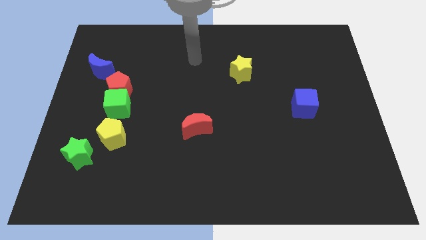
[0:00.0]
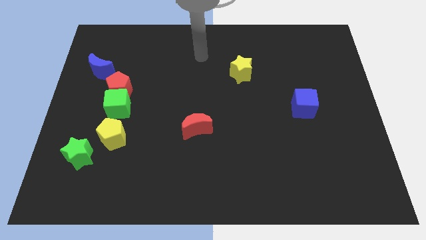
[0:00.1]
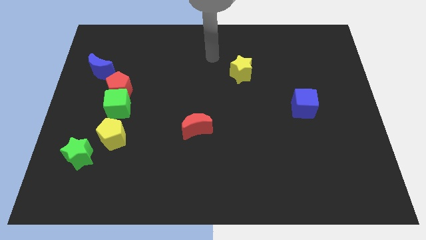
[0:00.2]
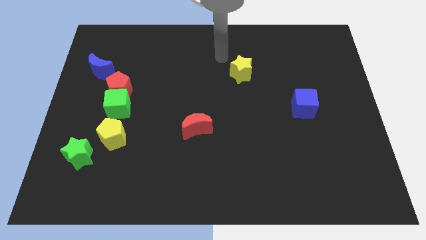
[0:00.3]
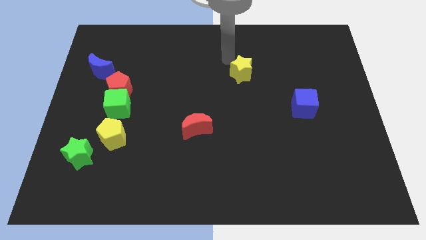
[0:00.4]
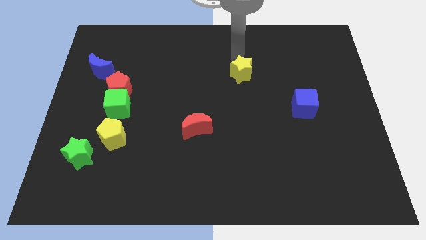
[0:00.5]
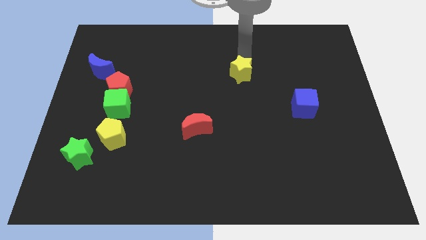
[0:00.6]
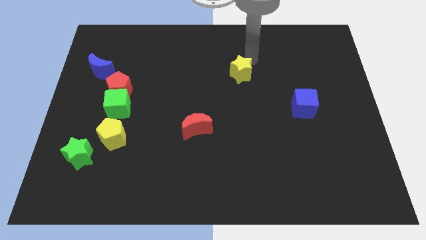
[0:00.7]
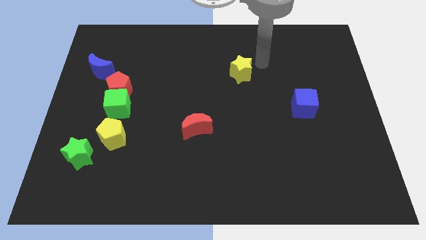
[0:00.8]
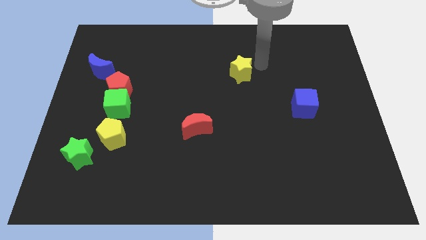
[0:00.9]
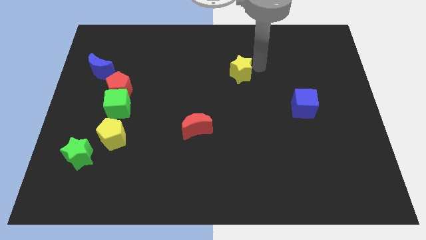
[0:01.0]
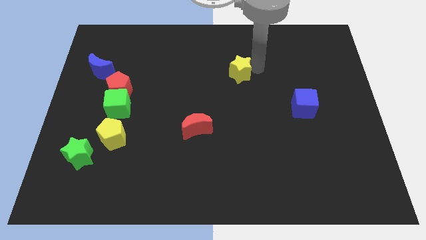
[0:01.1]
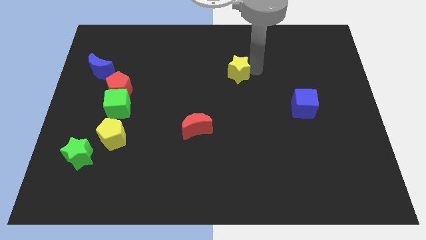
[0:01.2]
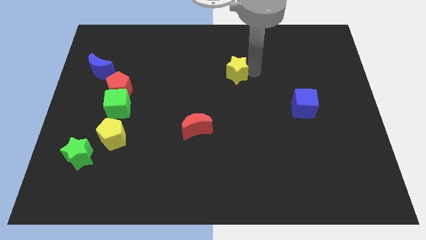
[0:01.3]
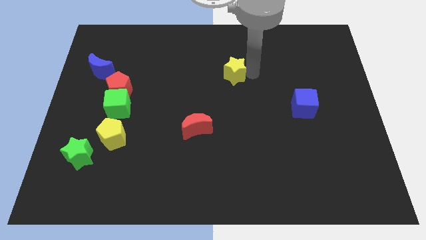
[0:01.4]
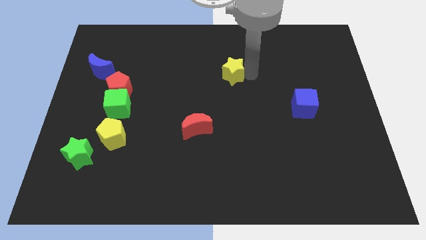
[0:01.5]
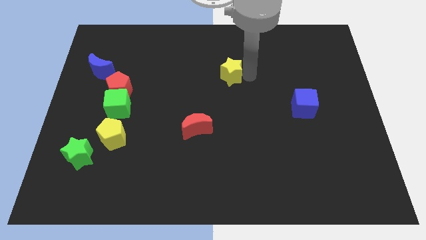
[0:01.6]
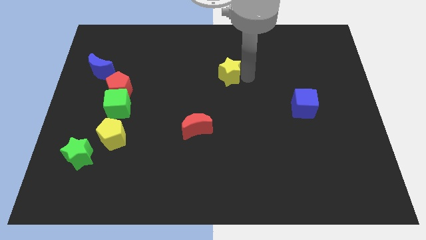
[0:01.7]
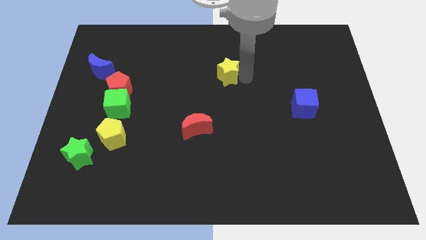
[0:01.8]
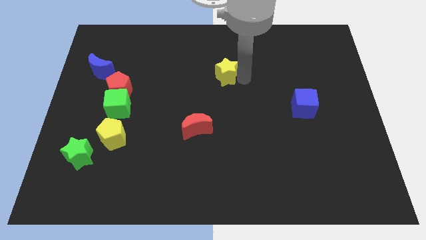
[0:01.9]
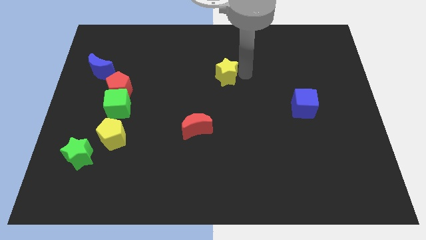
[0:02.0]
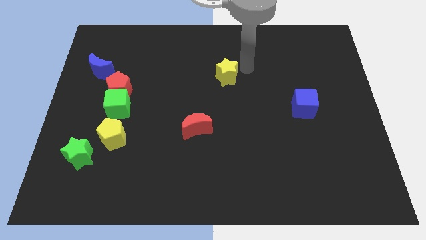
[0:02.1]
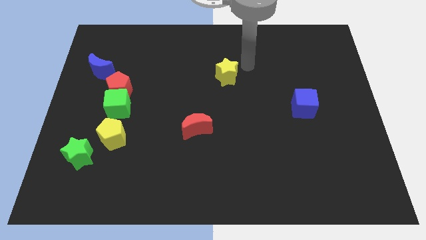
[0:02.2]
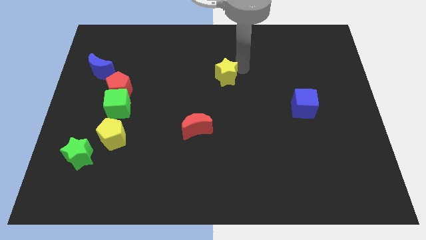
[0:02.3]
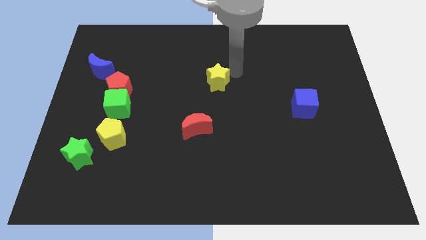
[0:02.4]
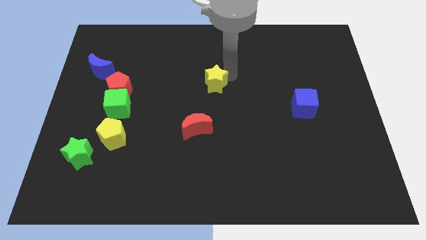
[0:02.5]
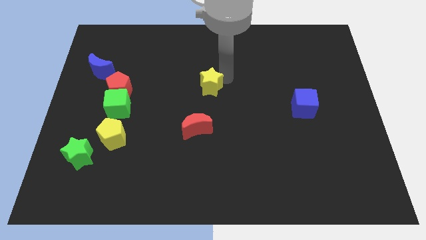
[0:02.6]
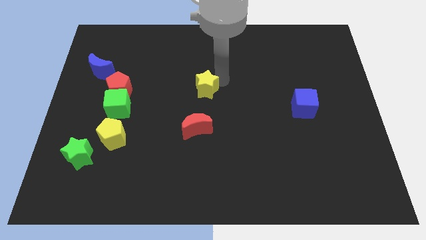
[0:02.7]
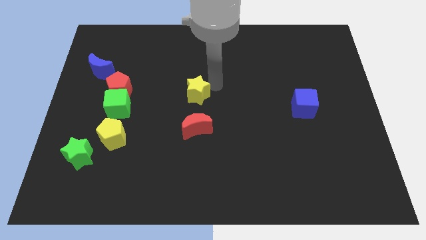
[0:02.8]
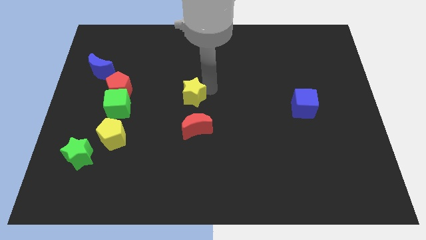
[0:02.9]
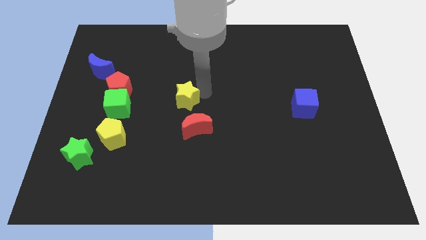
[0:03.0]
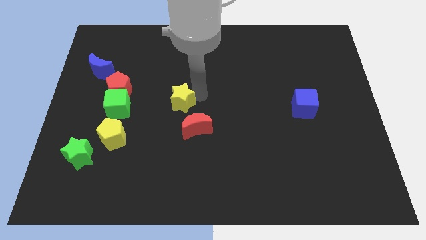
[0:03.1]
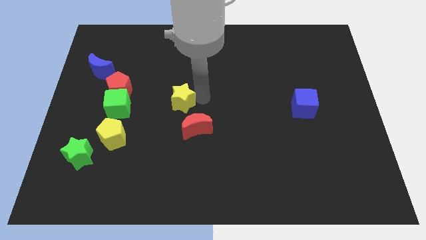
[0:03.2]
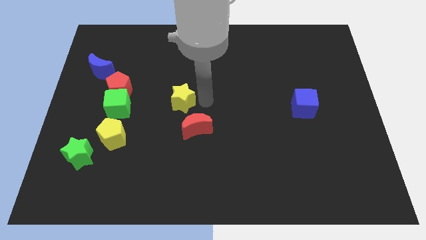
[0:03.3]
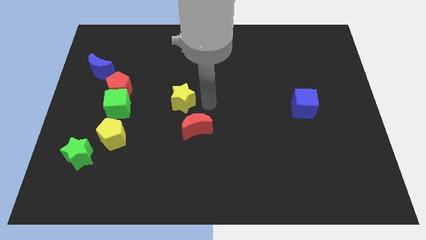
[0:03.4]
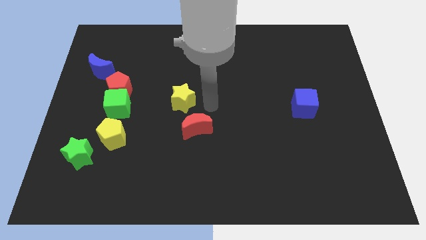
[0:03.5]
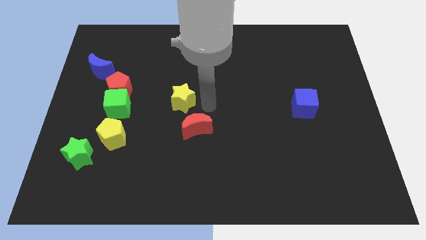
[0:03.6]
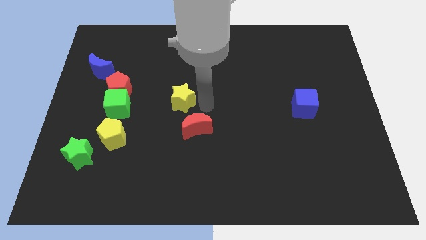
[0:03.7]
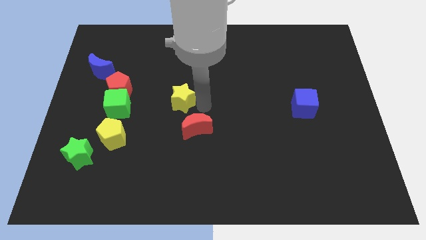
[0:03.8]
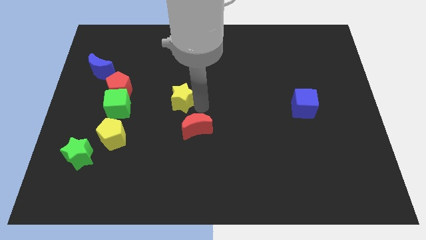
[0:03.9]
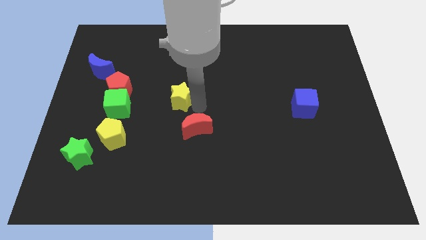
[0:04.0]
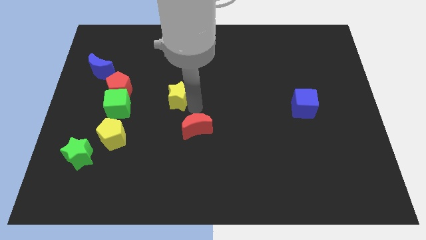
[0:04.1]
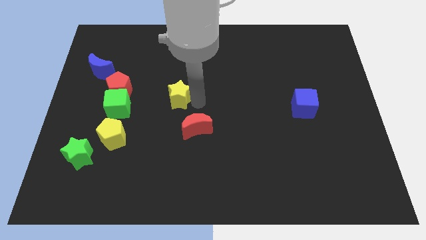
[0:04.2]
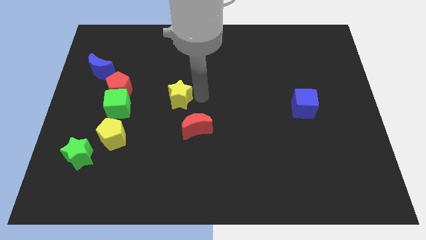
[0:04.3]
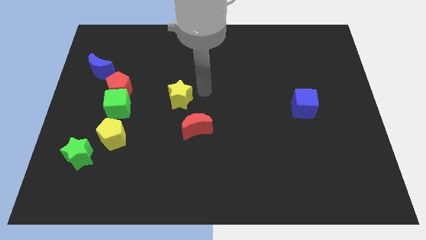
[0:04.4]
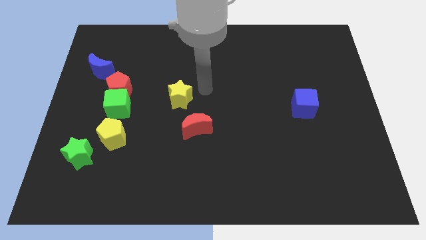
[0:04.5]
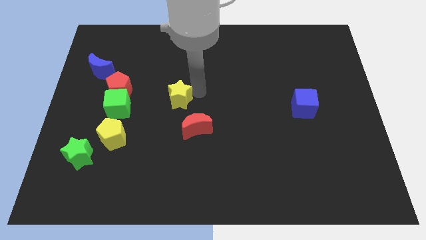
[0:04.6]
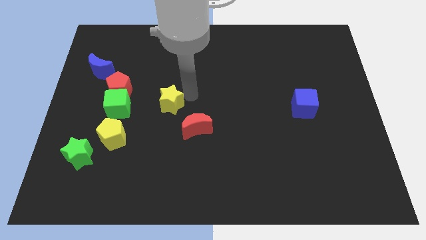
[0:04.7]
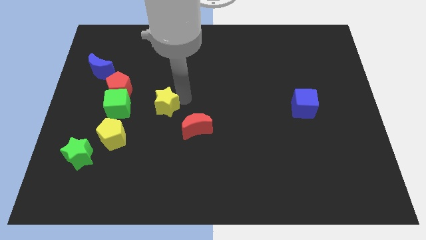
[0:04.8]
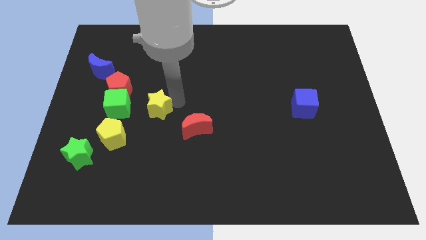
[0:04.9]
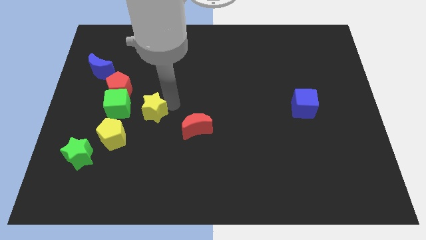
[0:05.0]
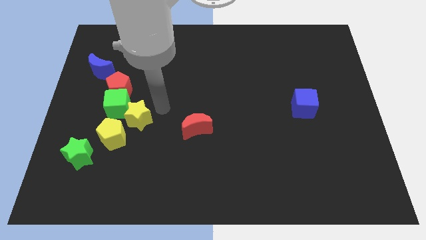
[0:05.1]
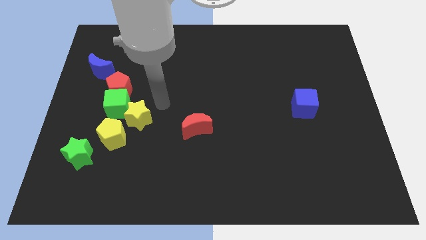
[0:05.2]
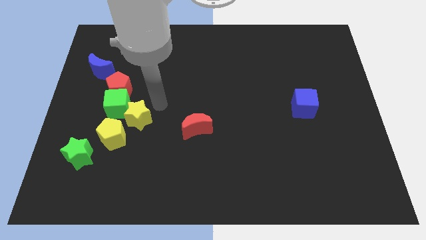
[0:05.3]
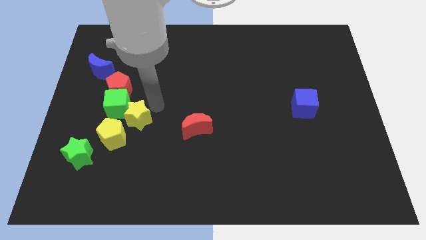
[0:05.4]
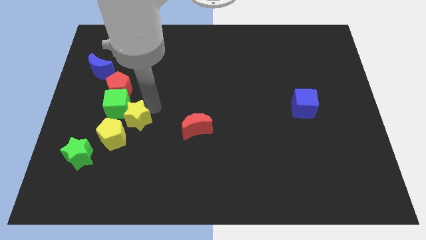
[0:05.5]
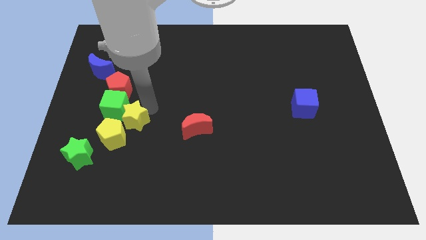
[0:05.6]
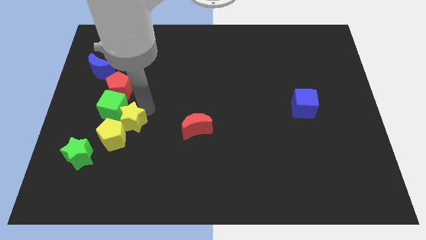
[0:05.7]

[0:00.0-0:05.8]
move the yellow star next to the yellow pentagon

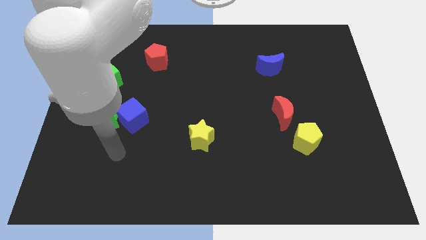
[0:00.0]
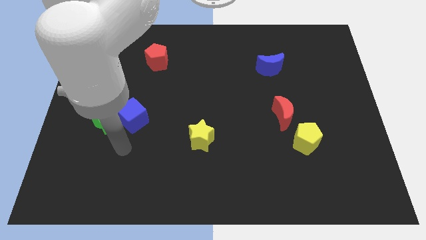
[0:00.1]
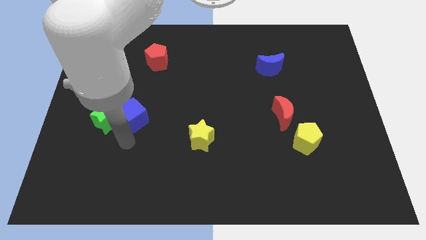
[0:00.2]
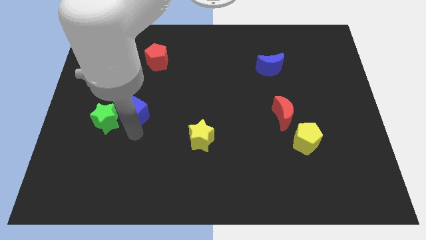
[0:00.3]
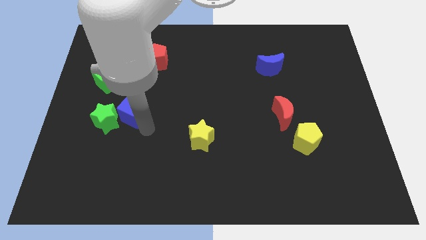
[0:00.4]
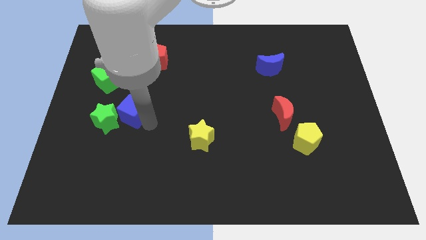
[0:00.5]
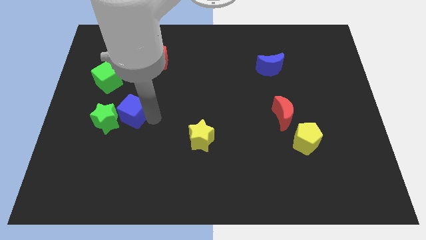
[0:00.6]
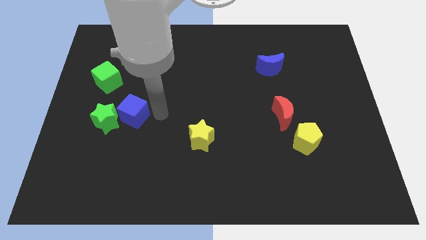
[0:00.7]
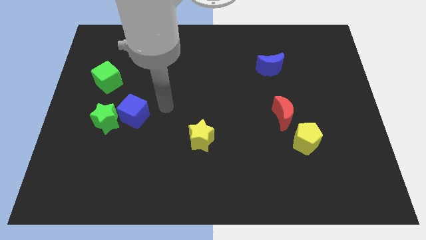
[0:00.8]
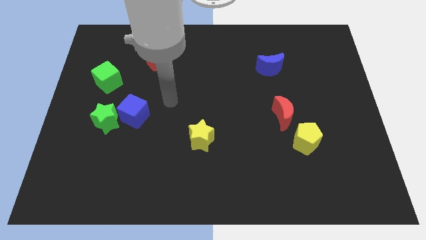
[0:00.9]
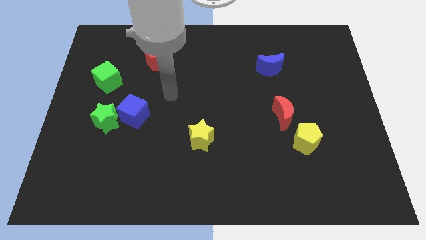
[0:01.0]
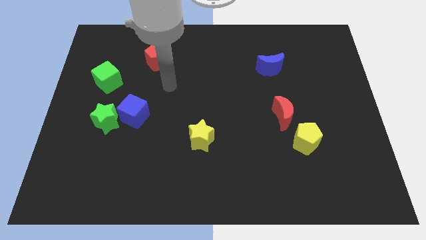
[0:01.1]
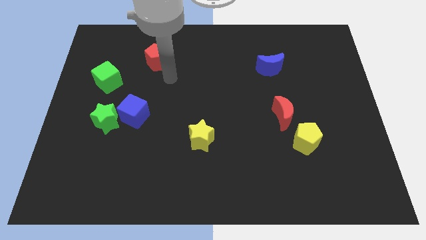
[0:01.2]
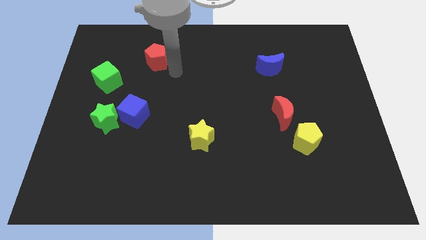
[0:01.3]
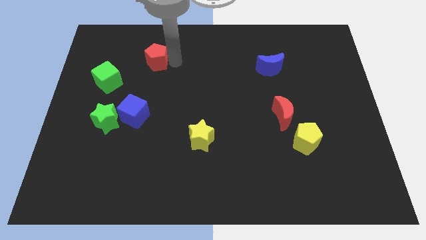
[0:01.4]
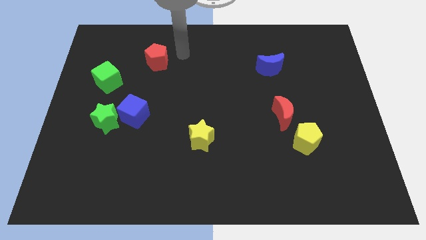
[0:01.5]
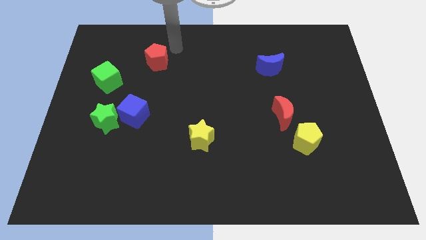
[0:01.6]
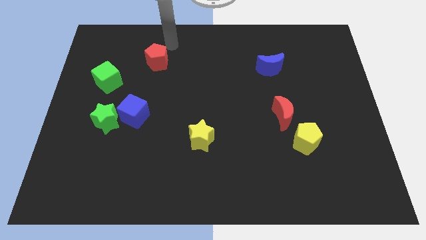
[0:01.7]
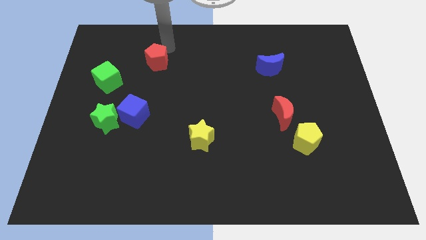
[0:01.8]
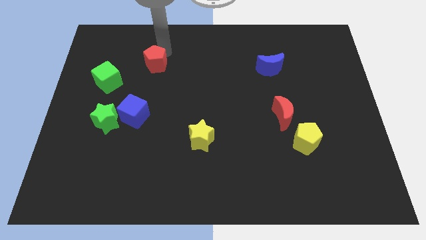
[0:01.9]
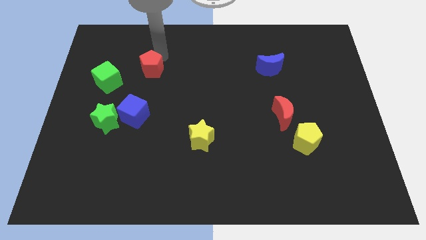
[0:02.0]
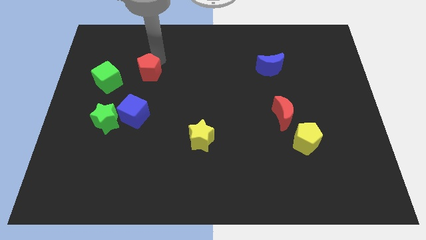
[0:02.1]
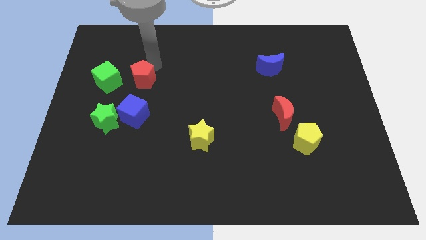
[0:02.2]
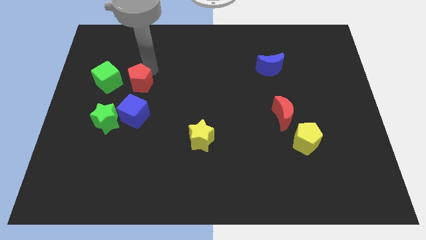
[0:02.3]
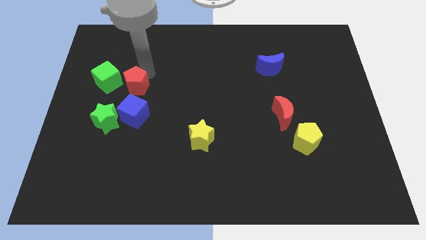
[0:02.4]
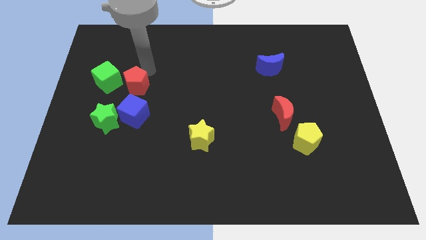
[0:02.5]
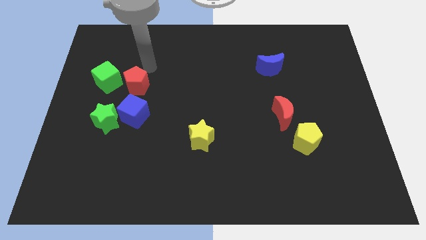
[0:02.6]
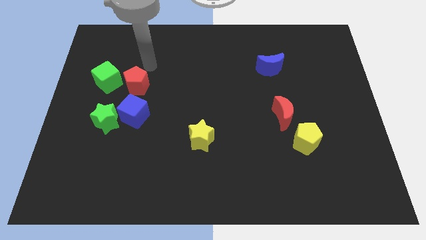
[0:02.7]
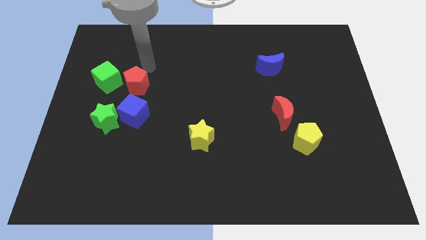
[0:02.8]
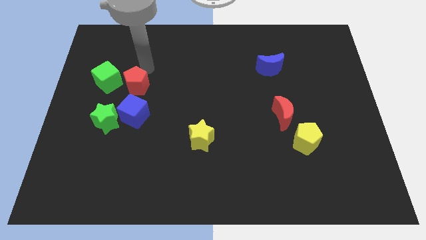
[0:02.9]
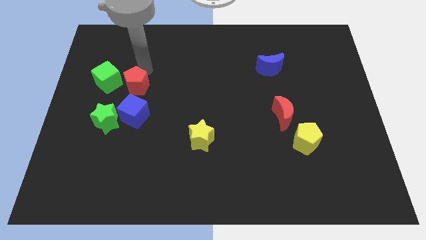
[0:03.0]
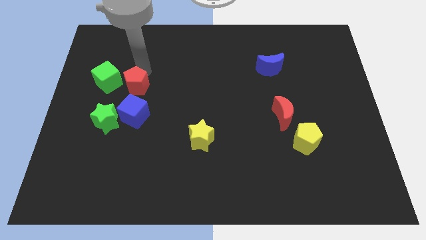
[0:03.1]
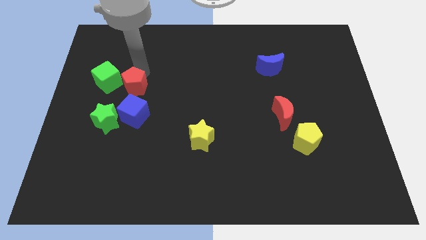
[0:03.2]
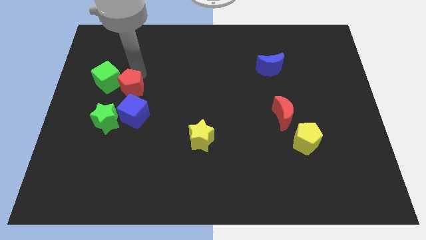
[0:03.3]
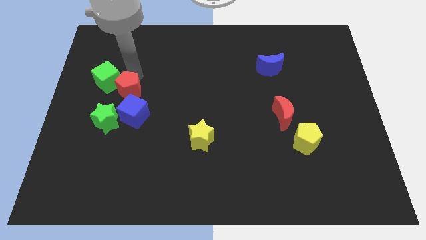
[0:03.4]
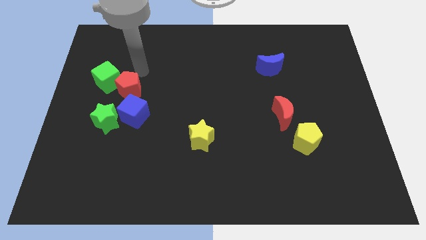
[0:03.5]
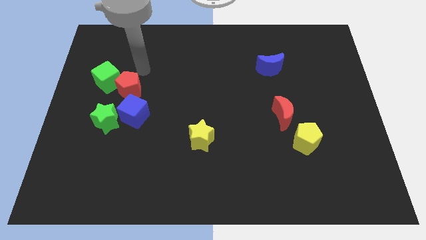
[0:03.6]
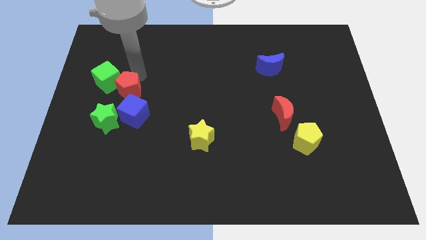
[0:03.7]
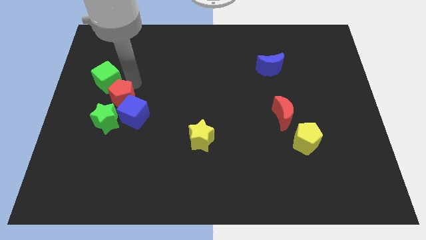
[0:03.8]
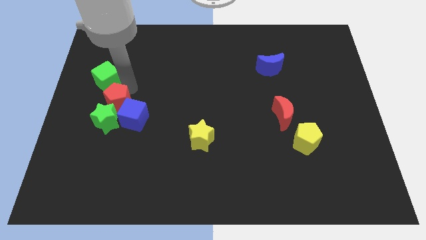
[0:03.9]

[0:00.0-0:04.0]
push the red pentagon to the green star
